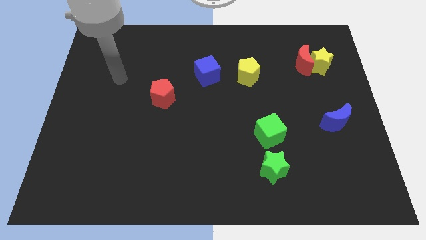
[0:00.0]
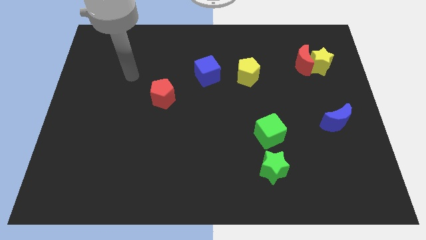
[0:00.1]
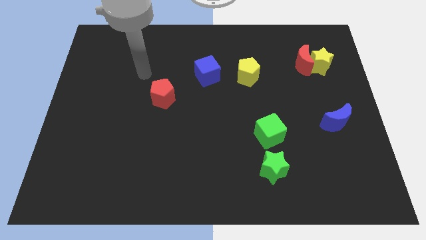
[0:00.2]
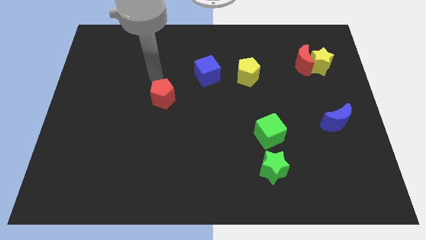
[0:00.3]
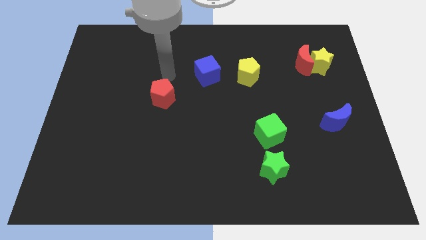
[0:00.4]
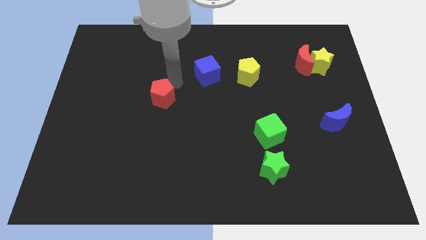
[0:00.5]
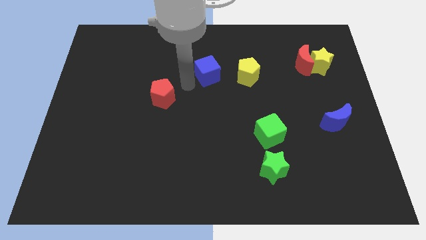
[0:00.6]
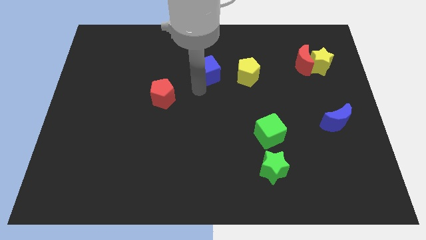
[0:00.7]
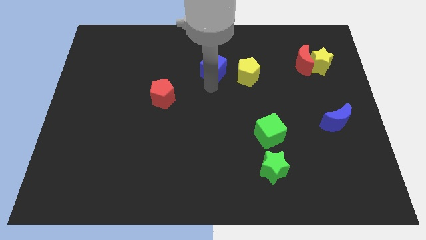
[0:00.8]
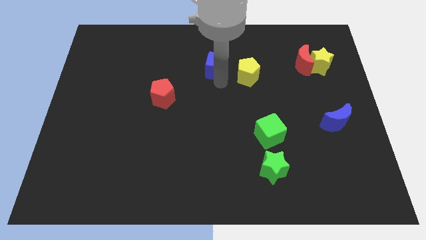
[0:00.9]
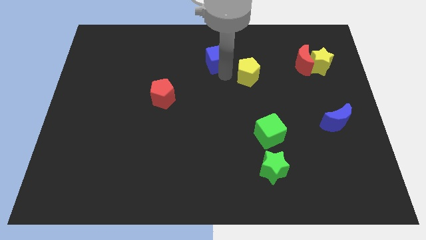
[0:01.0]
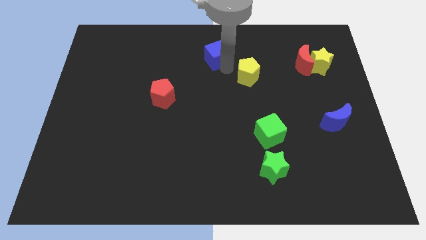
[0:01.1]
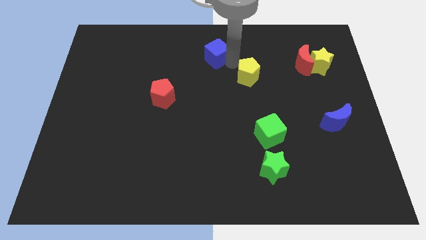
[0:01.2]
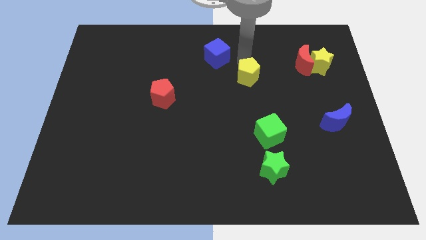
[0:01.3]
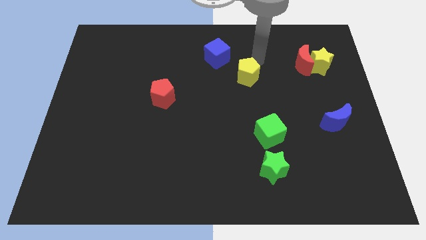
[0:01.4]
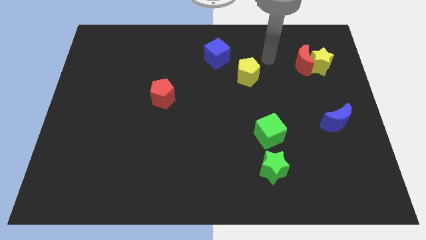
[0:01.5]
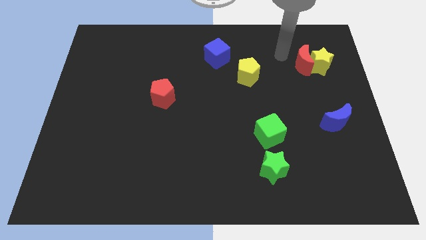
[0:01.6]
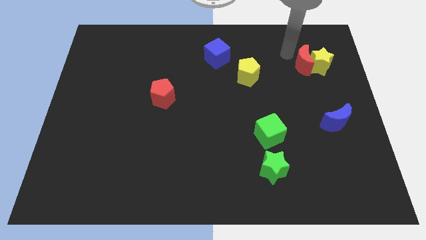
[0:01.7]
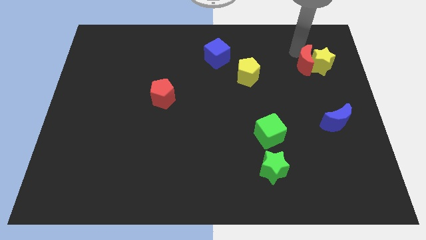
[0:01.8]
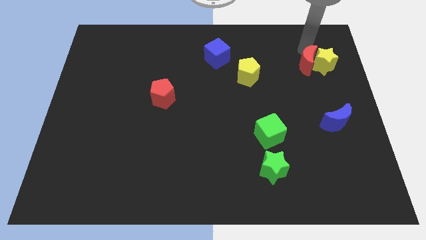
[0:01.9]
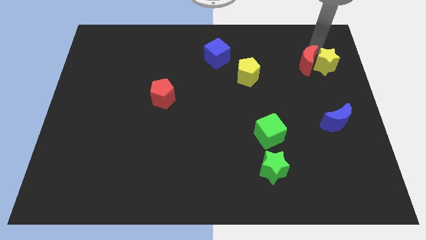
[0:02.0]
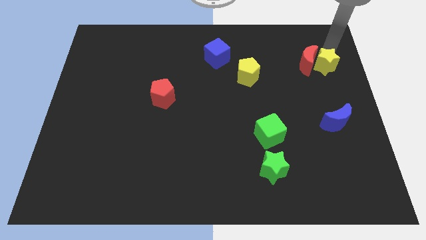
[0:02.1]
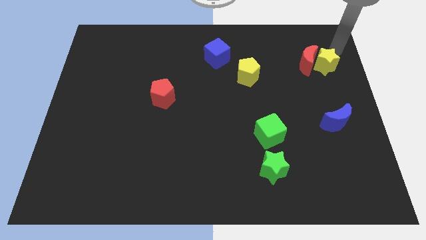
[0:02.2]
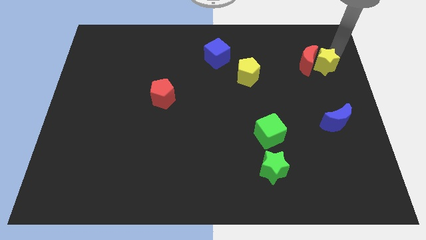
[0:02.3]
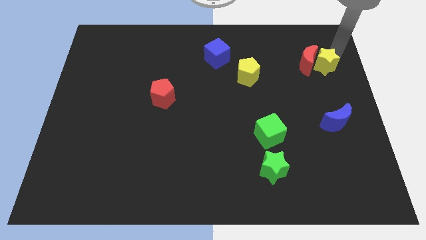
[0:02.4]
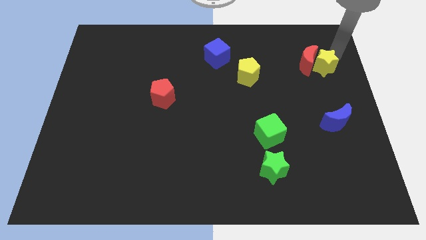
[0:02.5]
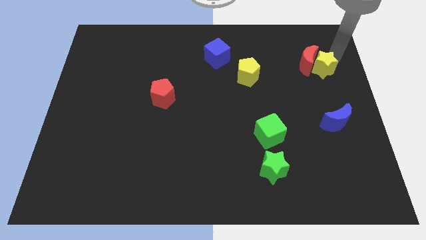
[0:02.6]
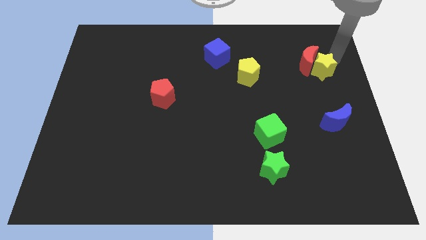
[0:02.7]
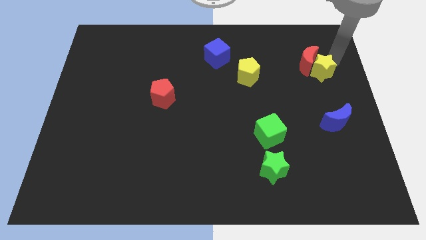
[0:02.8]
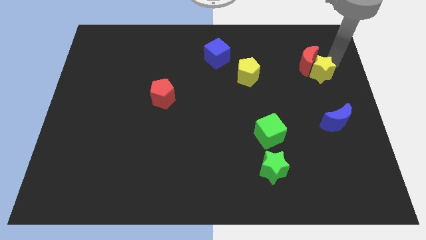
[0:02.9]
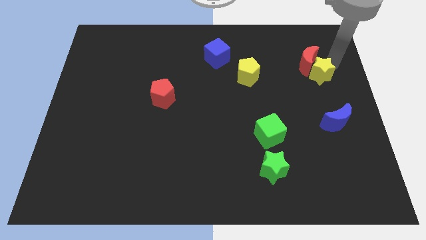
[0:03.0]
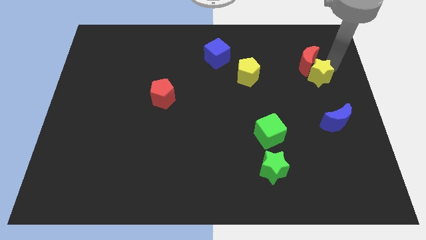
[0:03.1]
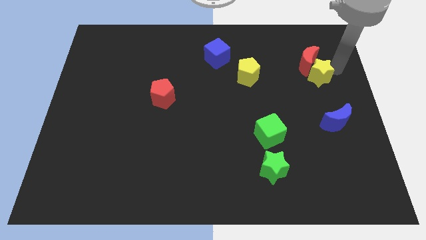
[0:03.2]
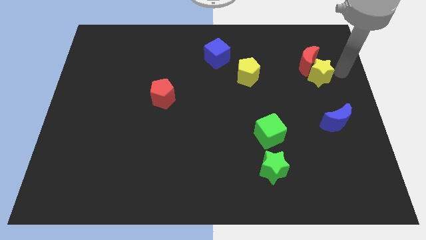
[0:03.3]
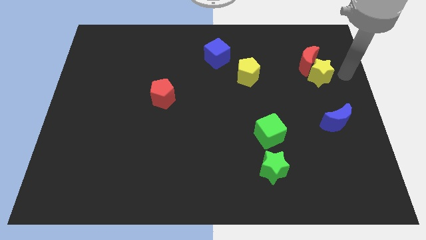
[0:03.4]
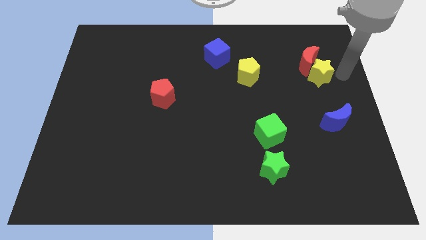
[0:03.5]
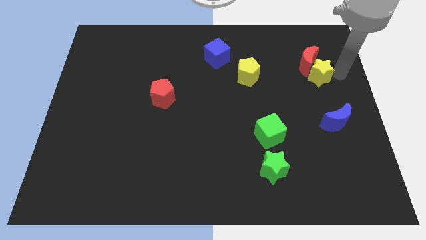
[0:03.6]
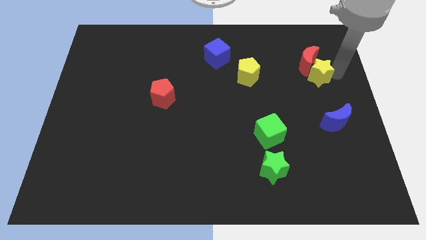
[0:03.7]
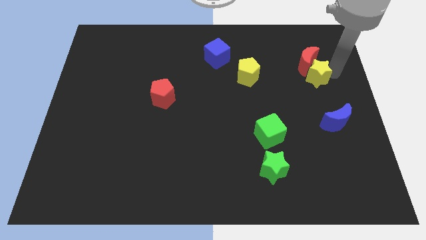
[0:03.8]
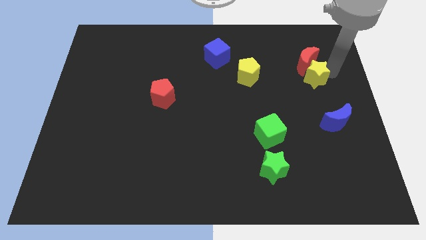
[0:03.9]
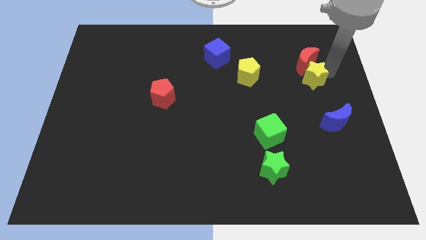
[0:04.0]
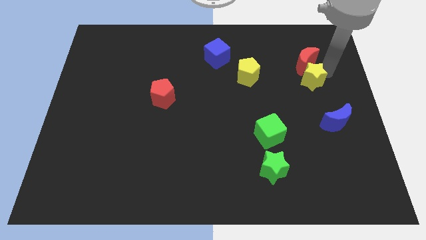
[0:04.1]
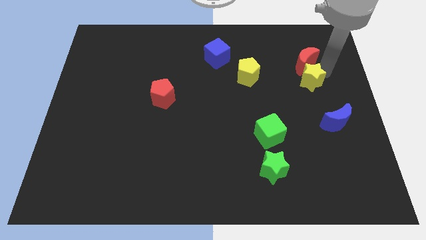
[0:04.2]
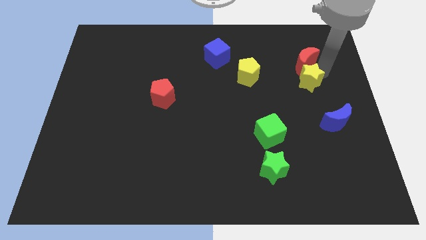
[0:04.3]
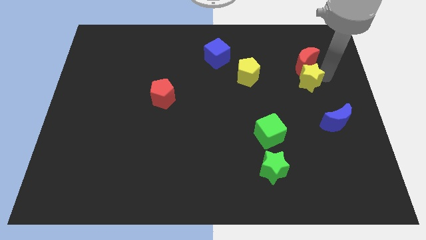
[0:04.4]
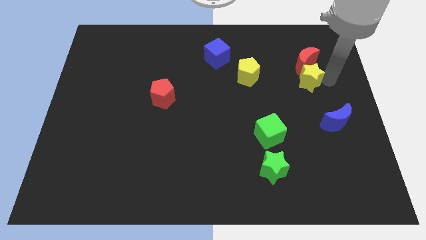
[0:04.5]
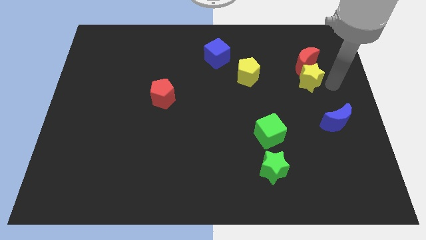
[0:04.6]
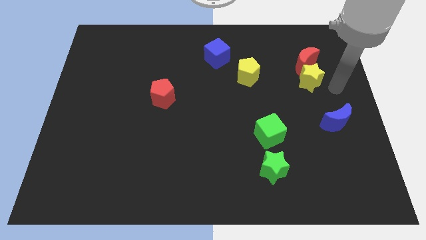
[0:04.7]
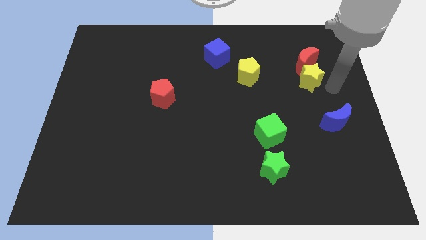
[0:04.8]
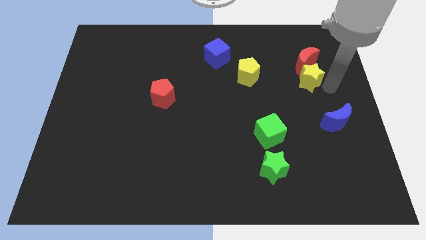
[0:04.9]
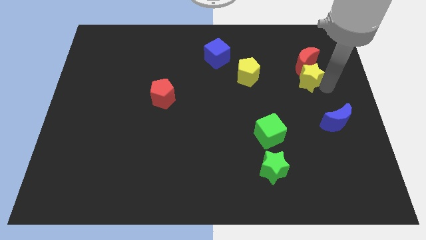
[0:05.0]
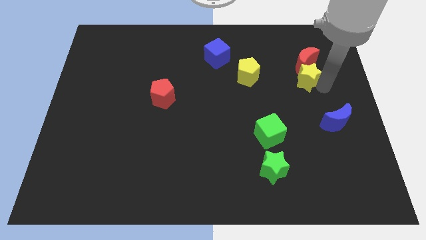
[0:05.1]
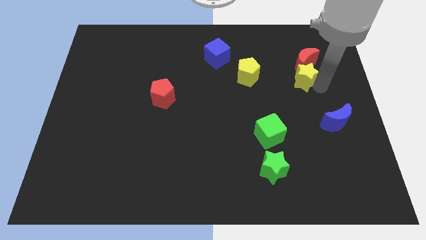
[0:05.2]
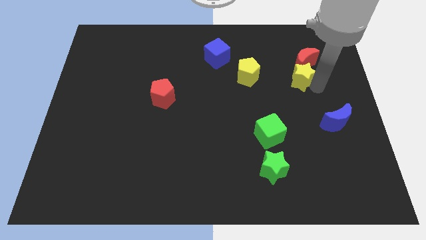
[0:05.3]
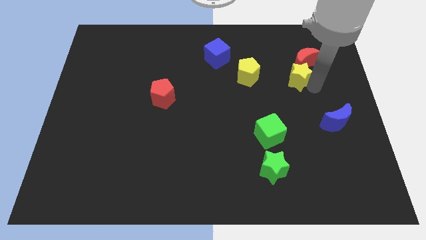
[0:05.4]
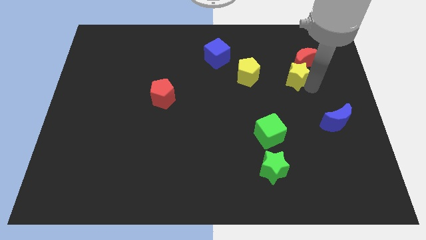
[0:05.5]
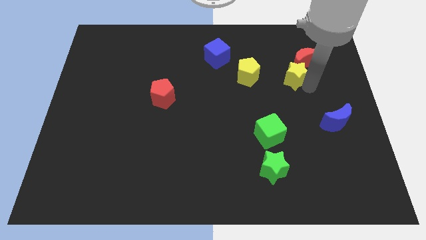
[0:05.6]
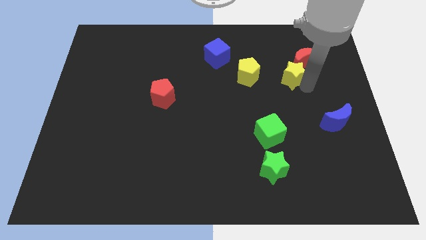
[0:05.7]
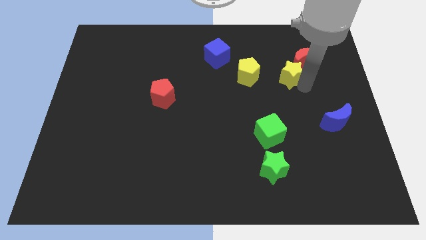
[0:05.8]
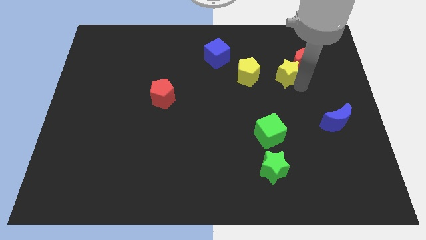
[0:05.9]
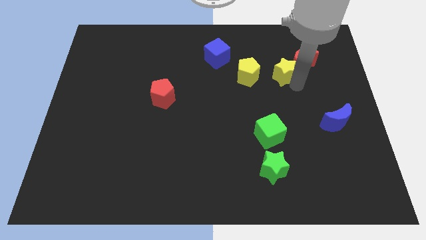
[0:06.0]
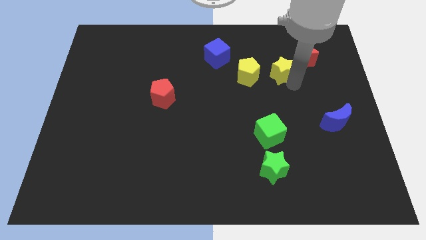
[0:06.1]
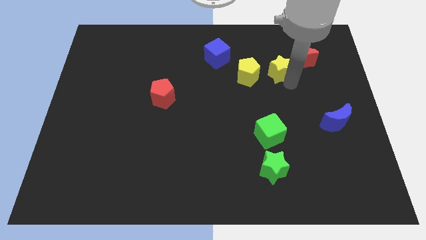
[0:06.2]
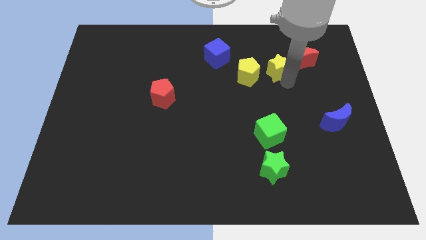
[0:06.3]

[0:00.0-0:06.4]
slide the yellow star to the top right of the yellow pentagon

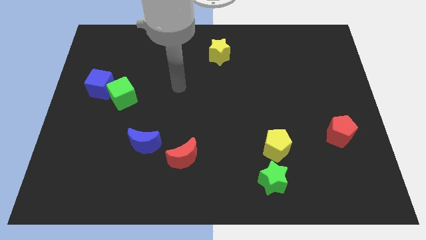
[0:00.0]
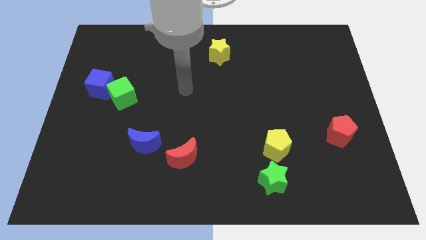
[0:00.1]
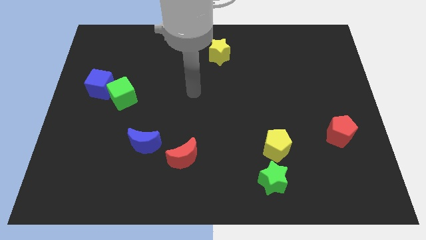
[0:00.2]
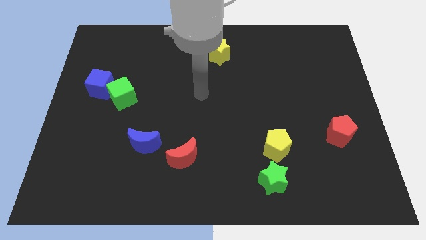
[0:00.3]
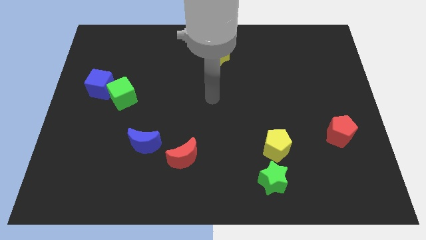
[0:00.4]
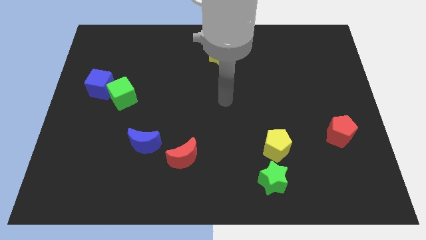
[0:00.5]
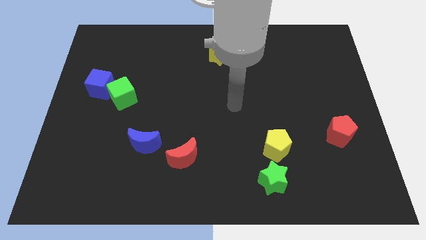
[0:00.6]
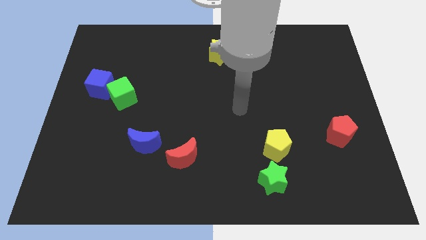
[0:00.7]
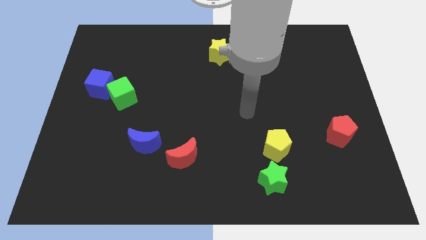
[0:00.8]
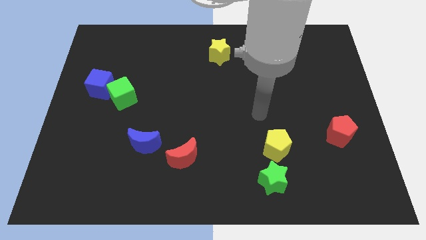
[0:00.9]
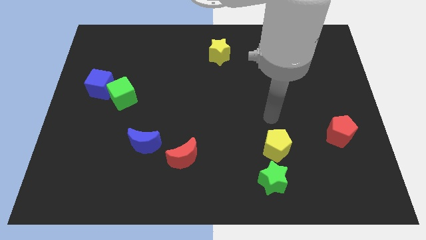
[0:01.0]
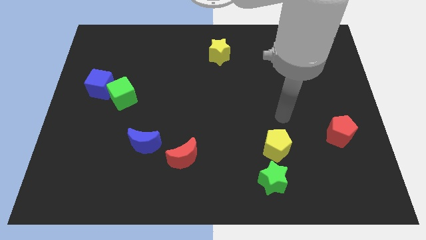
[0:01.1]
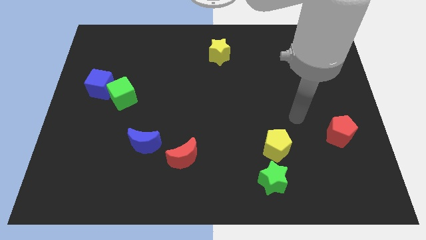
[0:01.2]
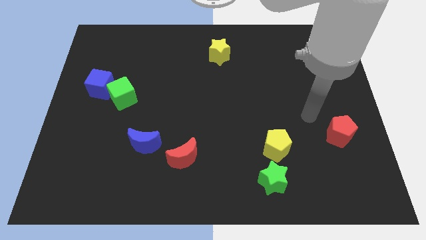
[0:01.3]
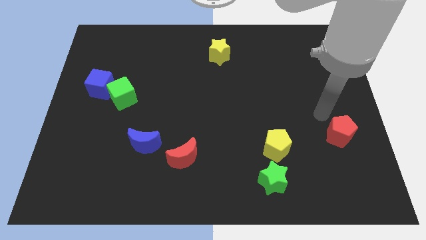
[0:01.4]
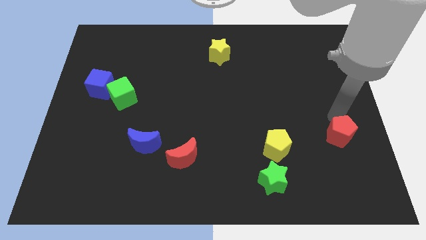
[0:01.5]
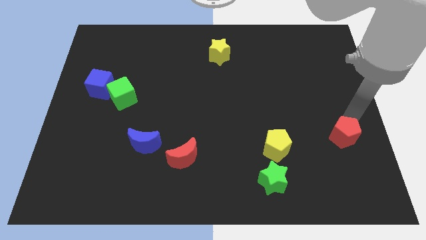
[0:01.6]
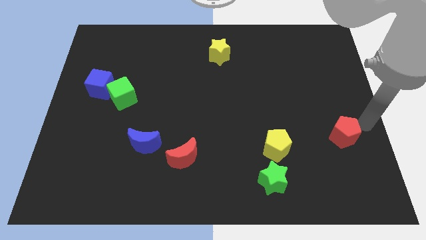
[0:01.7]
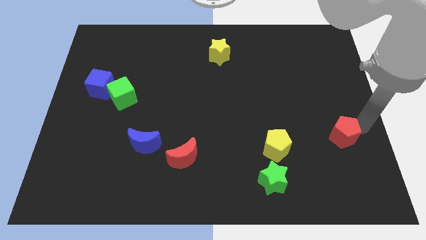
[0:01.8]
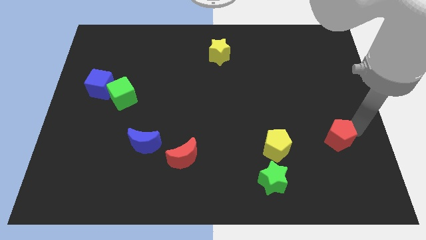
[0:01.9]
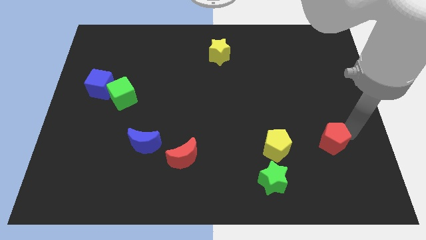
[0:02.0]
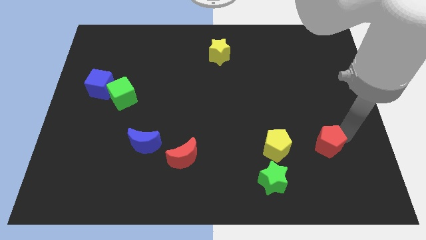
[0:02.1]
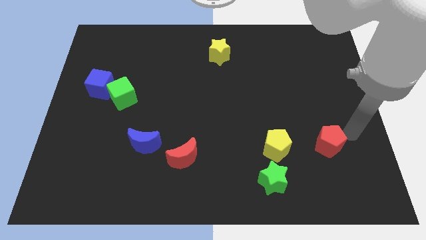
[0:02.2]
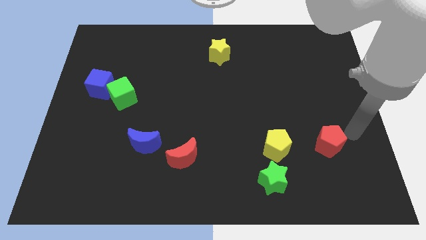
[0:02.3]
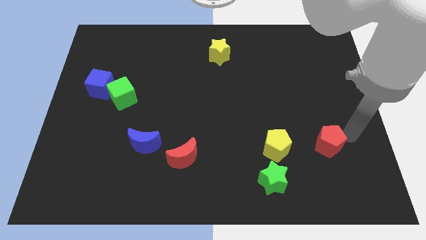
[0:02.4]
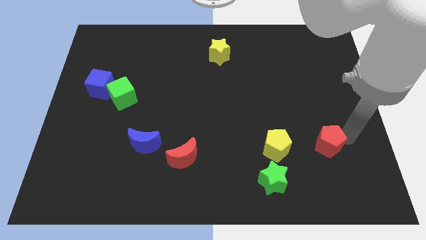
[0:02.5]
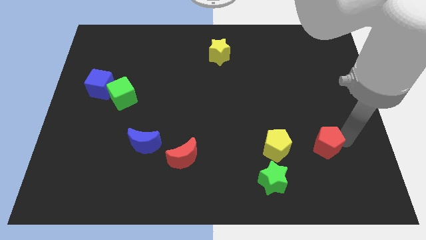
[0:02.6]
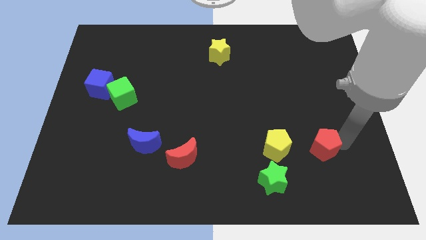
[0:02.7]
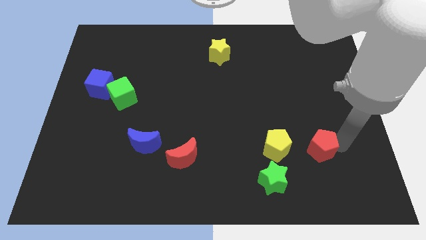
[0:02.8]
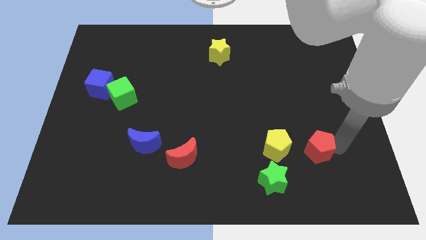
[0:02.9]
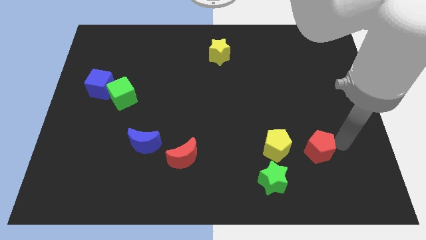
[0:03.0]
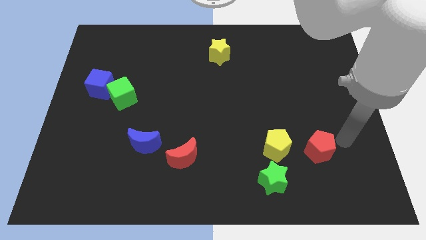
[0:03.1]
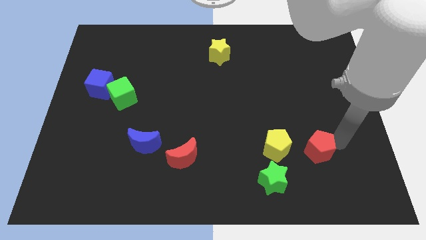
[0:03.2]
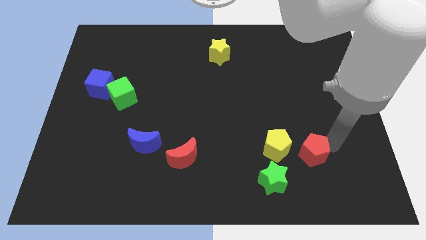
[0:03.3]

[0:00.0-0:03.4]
move the red pentagon to the top right of the green star
